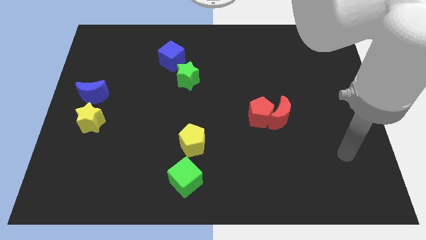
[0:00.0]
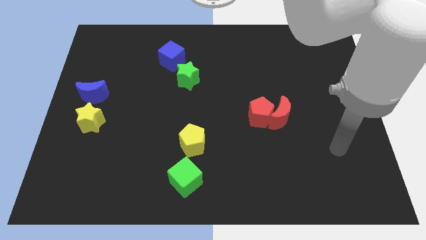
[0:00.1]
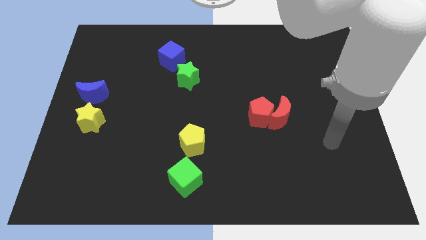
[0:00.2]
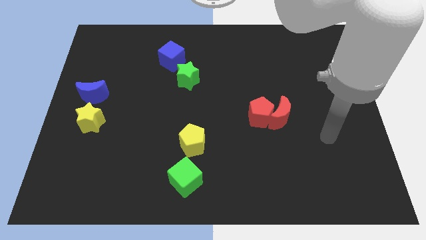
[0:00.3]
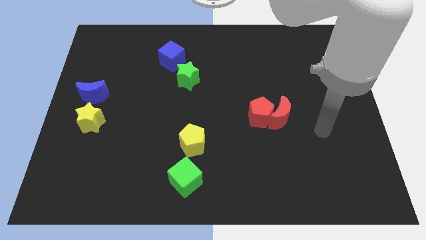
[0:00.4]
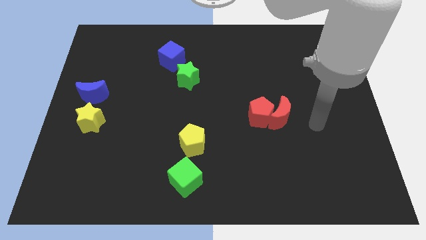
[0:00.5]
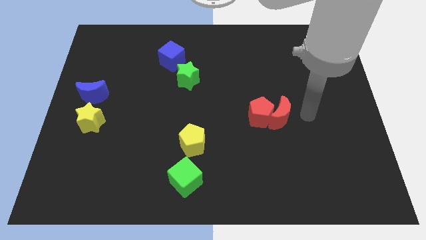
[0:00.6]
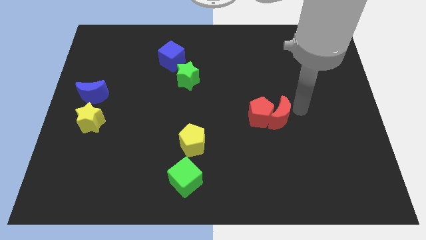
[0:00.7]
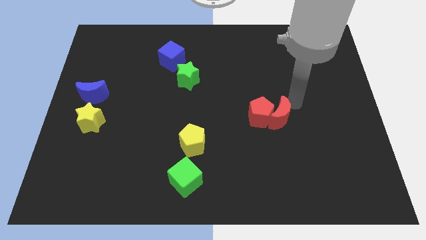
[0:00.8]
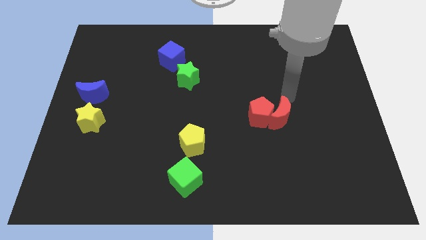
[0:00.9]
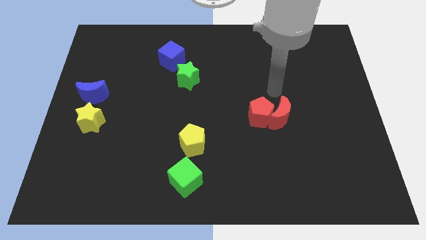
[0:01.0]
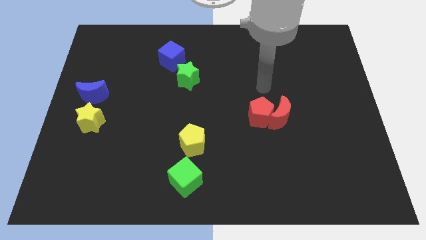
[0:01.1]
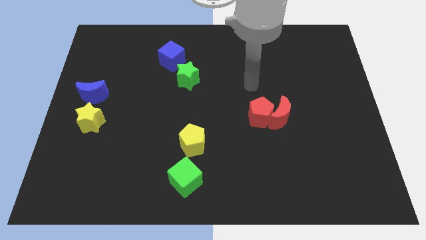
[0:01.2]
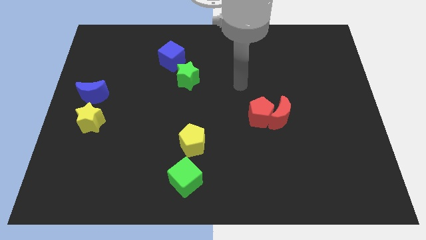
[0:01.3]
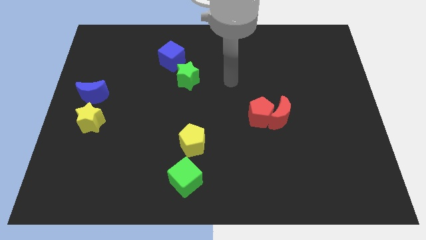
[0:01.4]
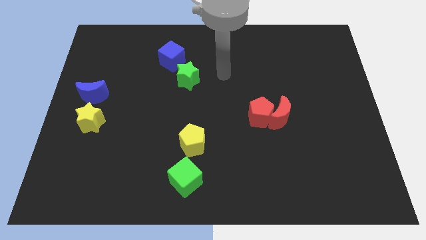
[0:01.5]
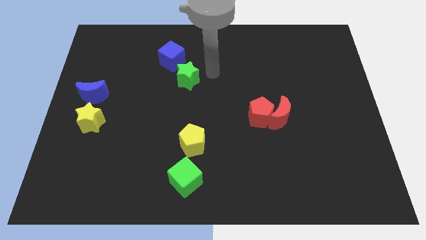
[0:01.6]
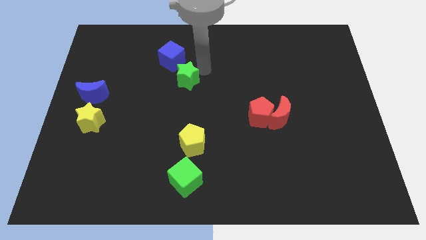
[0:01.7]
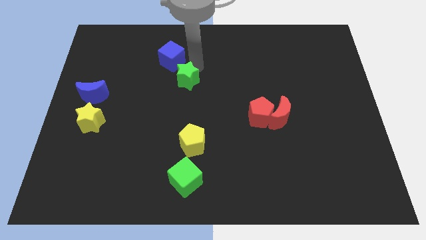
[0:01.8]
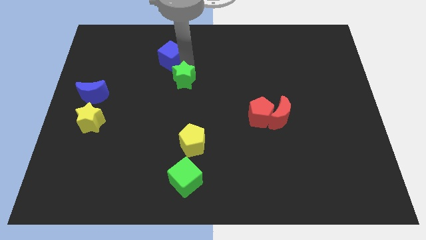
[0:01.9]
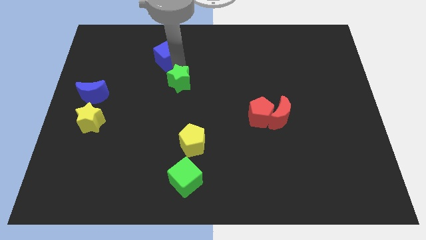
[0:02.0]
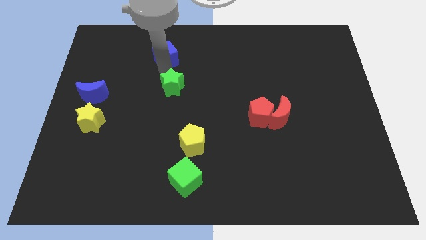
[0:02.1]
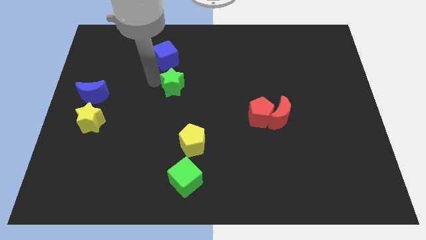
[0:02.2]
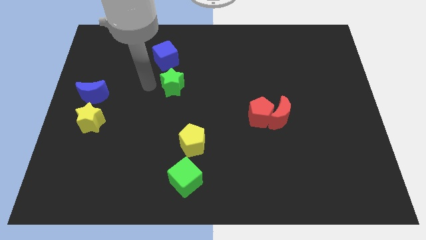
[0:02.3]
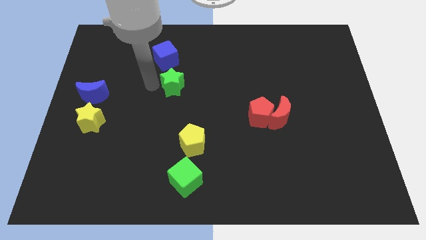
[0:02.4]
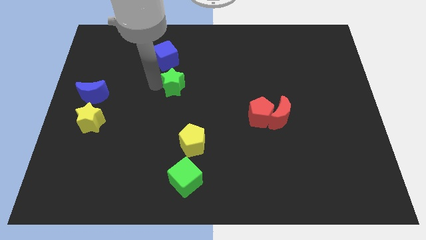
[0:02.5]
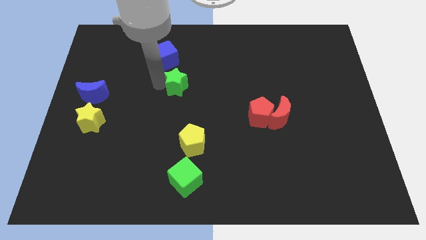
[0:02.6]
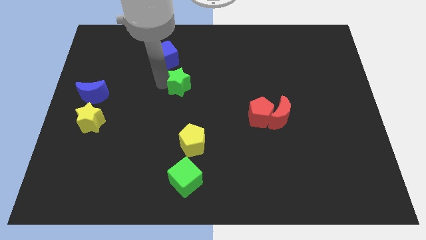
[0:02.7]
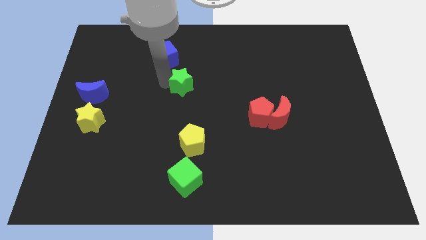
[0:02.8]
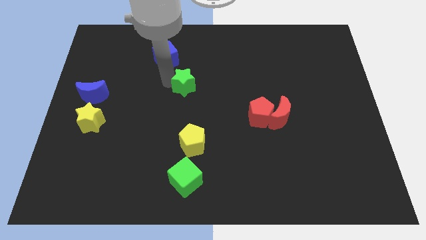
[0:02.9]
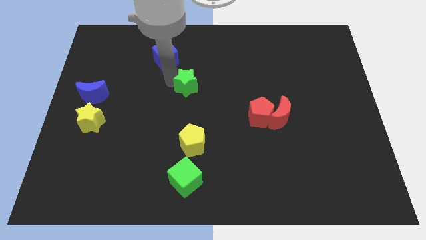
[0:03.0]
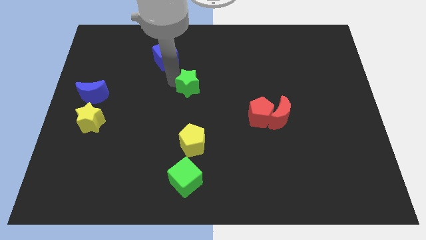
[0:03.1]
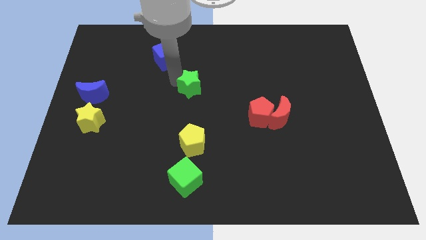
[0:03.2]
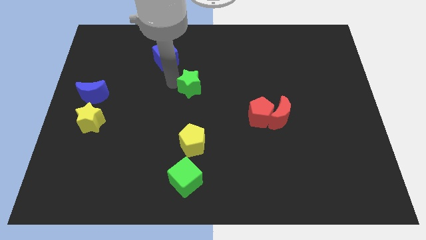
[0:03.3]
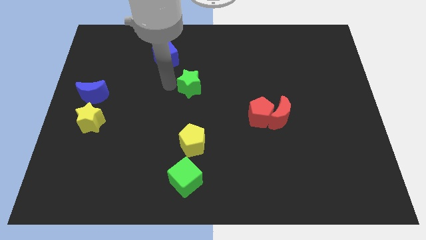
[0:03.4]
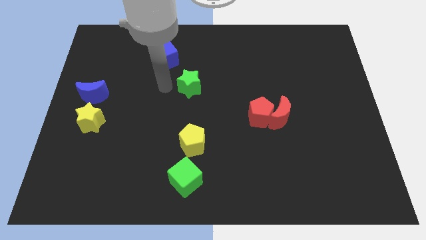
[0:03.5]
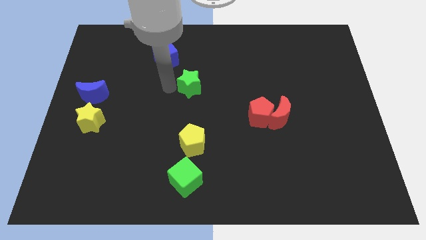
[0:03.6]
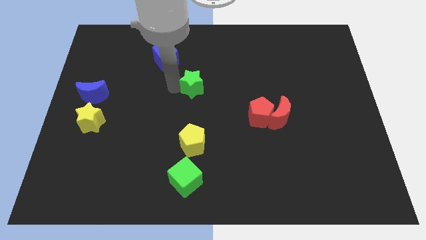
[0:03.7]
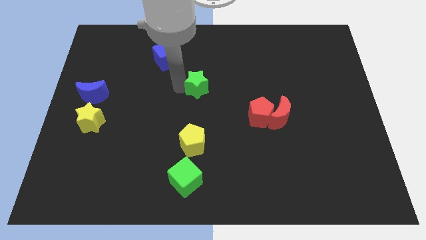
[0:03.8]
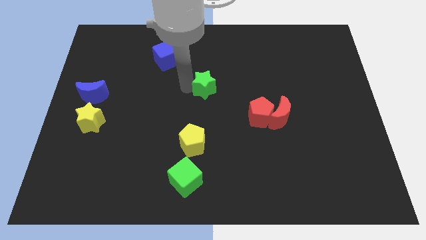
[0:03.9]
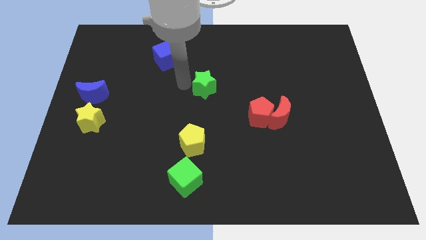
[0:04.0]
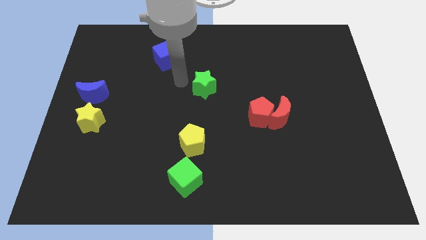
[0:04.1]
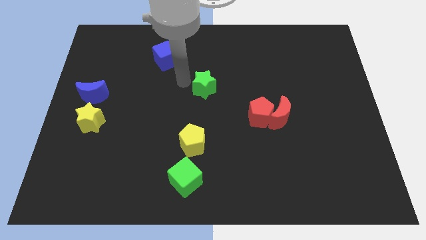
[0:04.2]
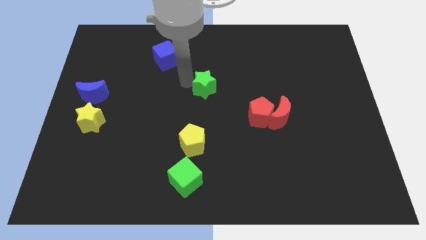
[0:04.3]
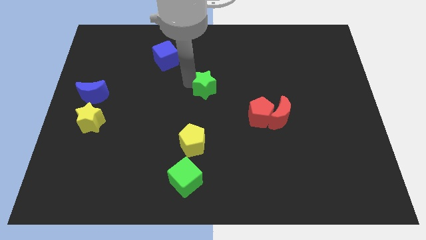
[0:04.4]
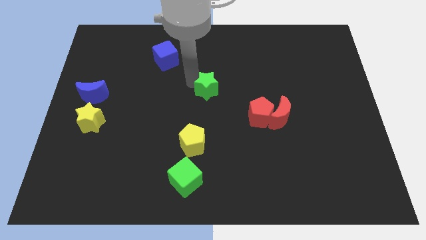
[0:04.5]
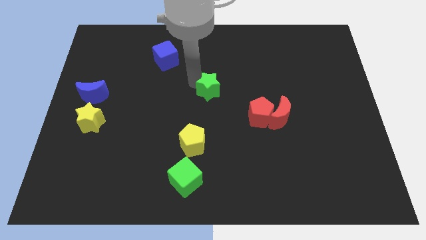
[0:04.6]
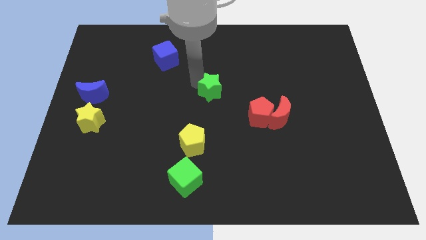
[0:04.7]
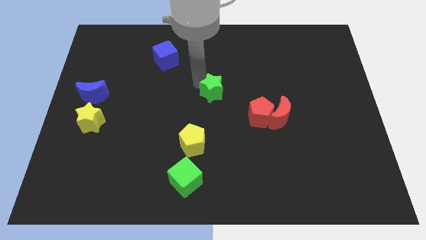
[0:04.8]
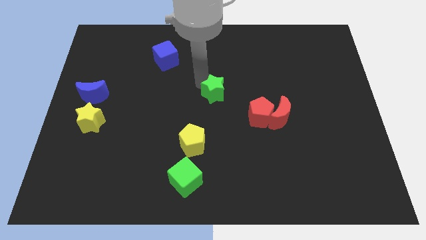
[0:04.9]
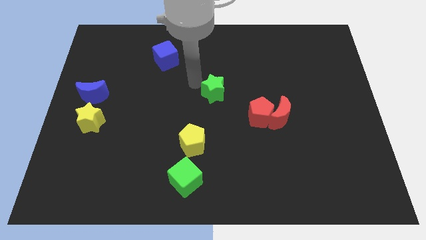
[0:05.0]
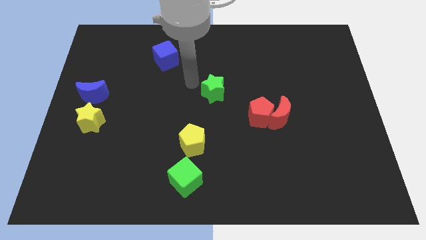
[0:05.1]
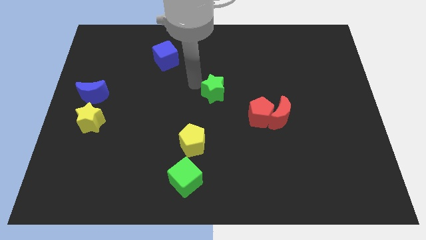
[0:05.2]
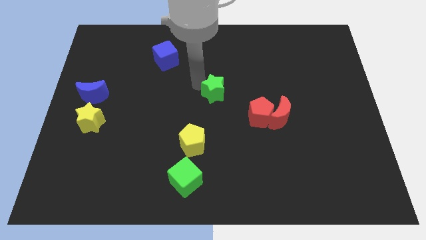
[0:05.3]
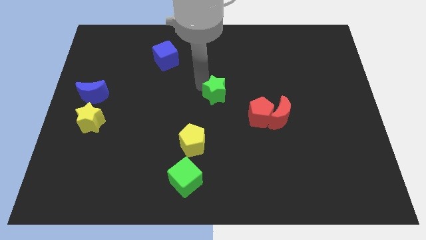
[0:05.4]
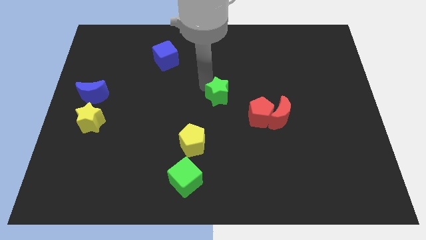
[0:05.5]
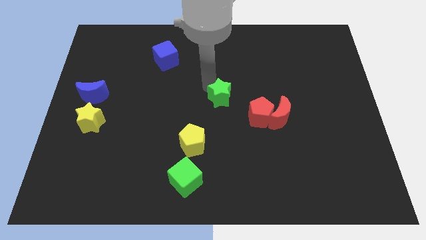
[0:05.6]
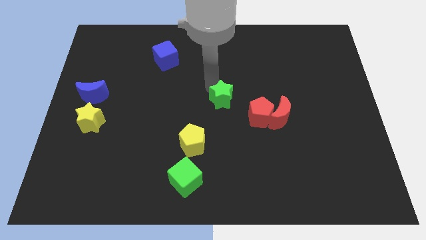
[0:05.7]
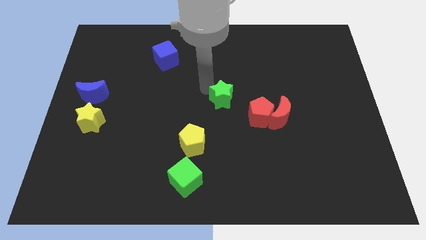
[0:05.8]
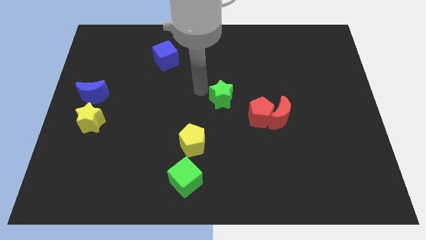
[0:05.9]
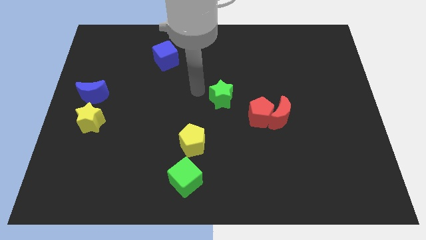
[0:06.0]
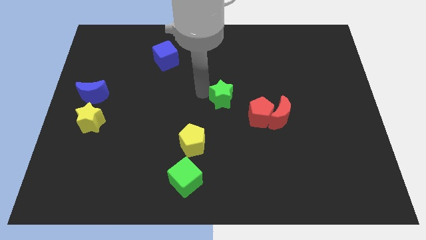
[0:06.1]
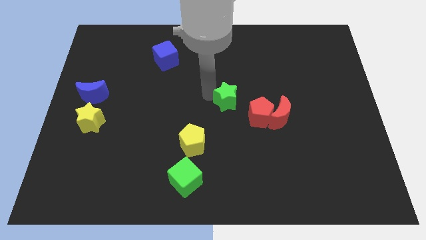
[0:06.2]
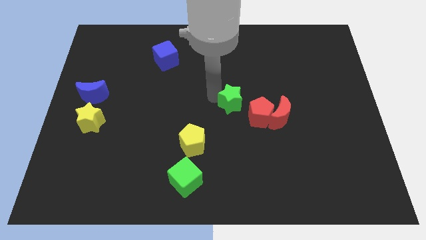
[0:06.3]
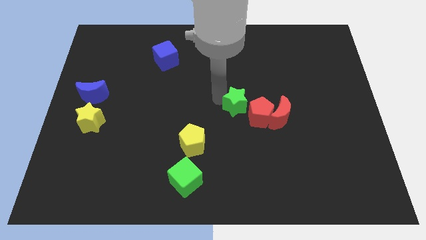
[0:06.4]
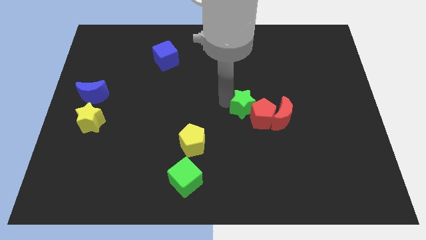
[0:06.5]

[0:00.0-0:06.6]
move the green star towards the red pentagon
